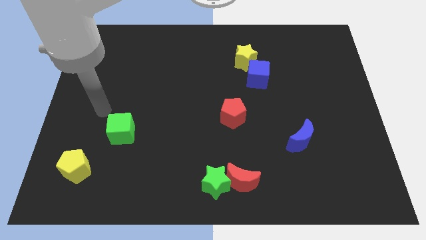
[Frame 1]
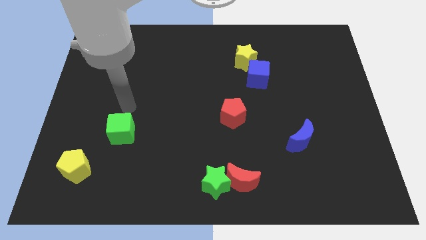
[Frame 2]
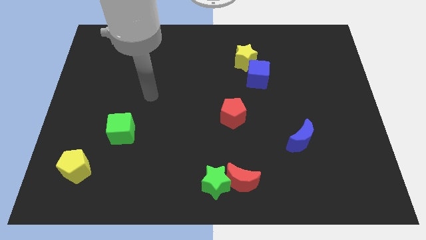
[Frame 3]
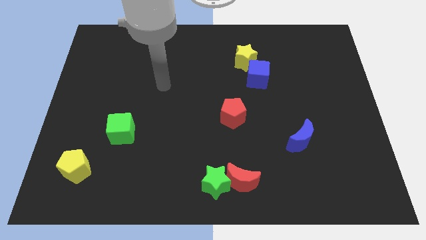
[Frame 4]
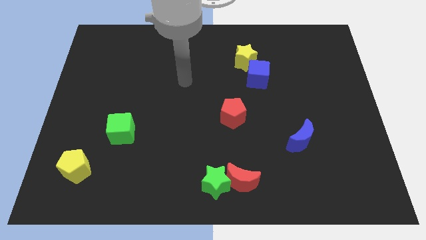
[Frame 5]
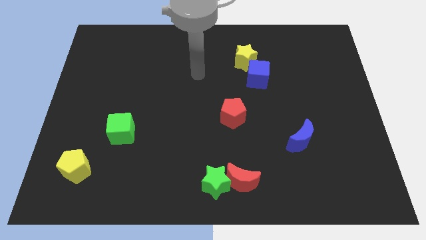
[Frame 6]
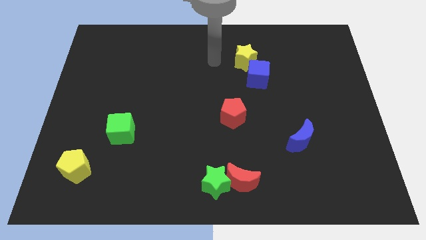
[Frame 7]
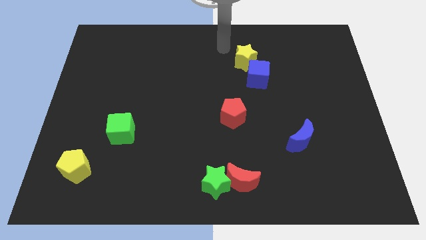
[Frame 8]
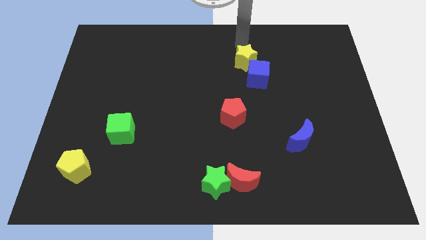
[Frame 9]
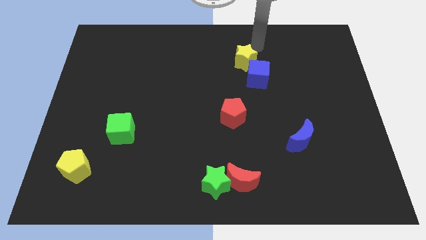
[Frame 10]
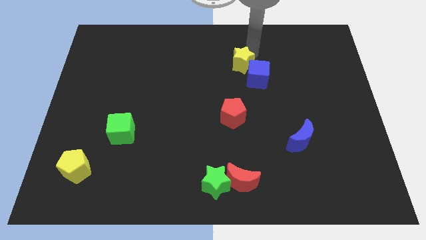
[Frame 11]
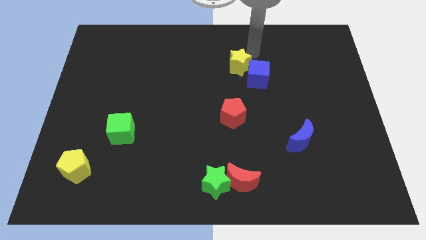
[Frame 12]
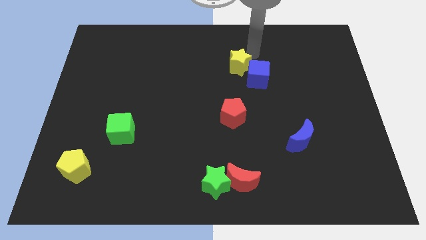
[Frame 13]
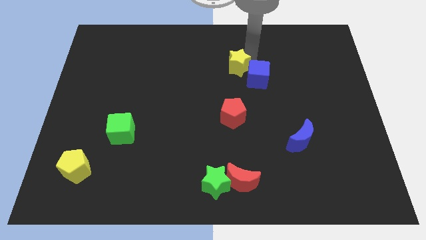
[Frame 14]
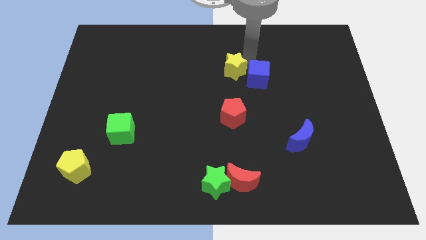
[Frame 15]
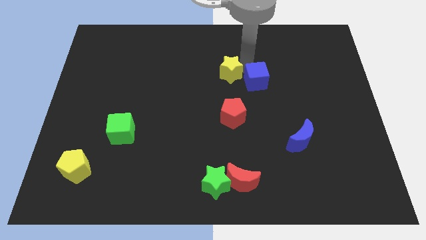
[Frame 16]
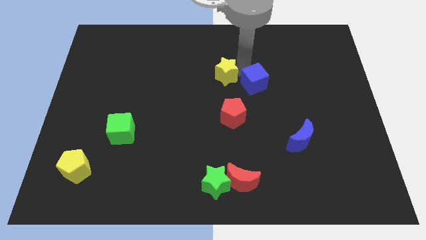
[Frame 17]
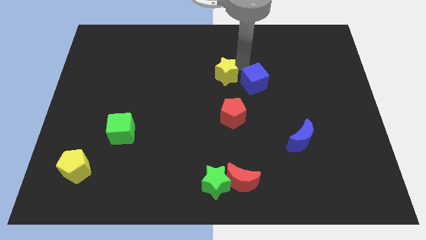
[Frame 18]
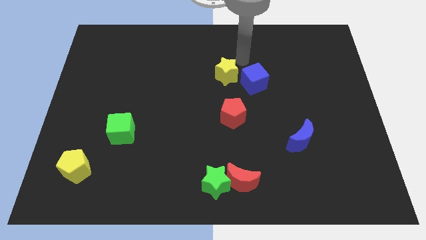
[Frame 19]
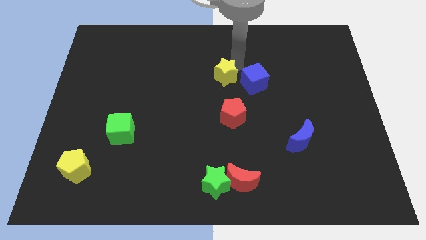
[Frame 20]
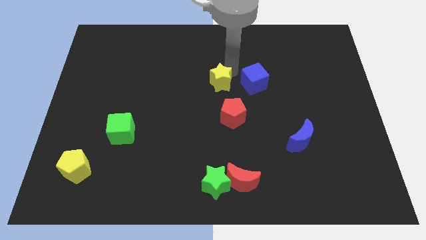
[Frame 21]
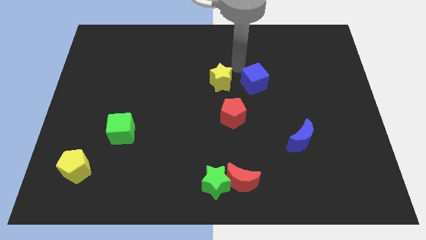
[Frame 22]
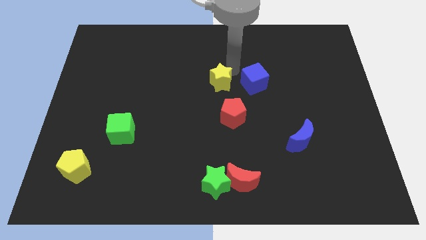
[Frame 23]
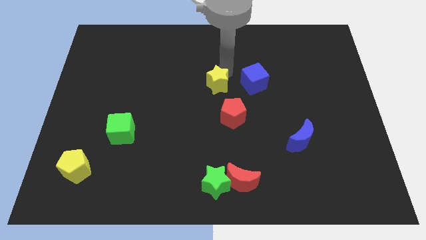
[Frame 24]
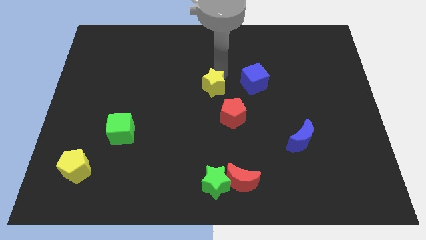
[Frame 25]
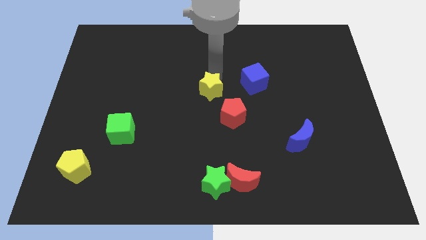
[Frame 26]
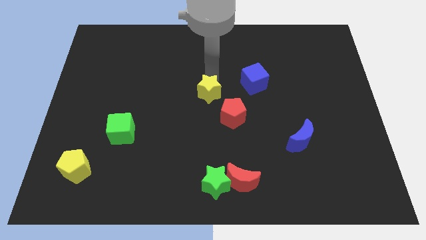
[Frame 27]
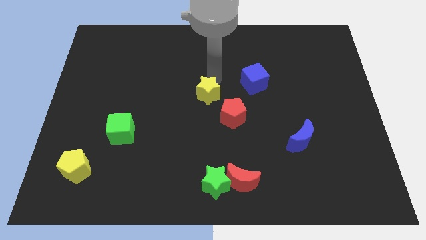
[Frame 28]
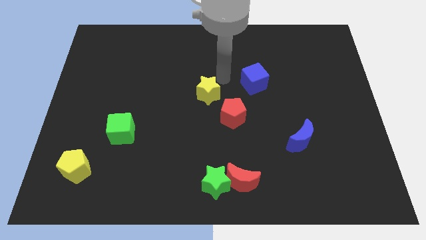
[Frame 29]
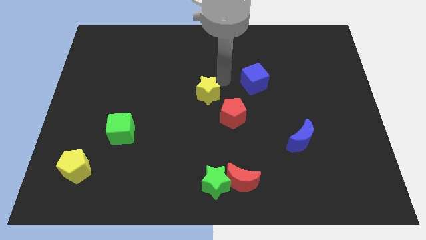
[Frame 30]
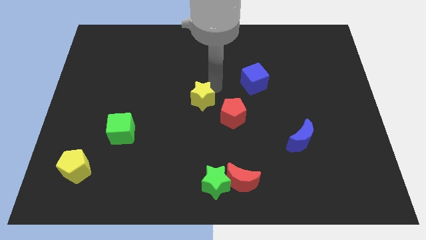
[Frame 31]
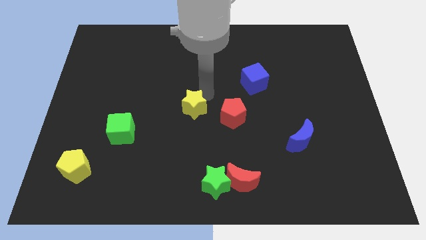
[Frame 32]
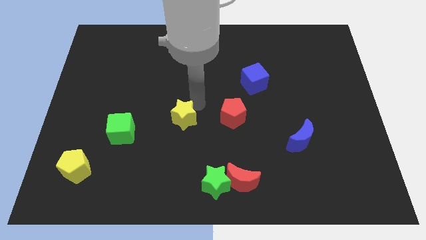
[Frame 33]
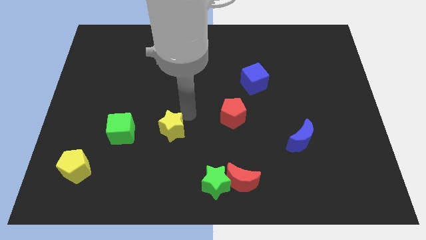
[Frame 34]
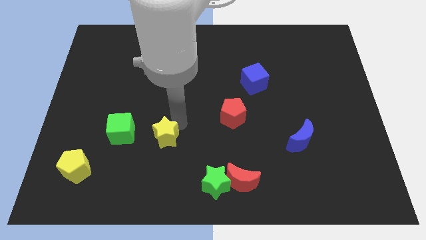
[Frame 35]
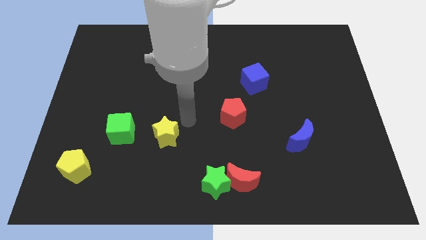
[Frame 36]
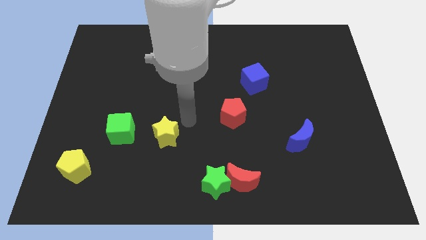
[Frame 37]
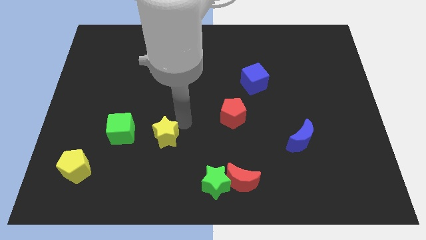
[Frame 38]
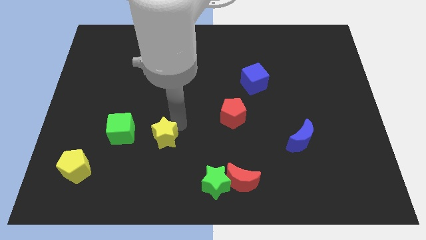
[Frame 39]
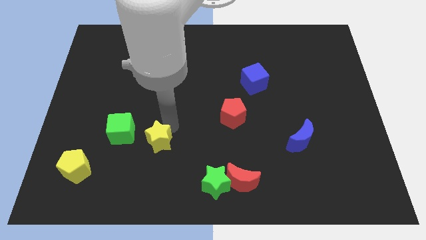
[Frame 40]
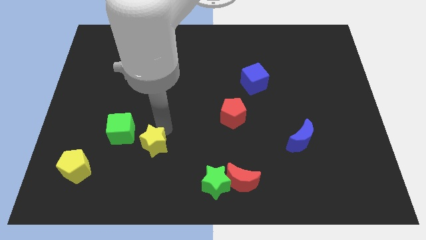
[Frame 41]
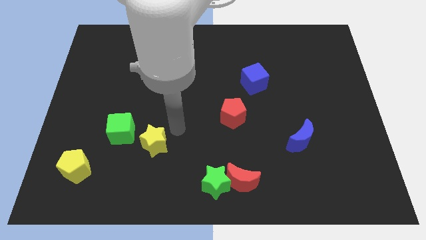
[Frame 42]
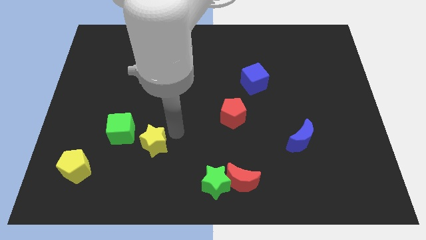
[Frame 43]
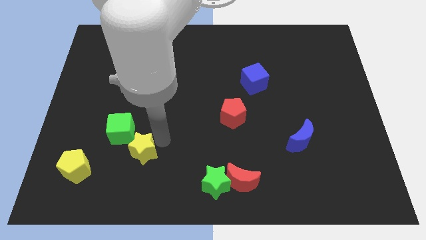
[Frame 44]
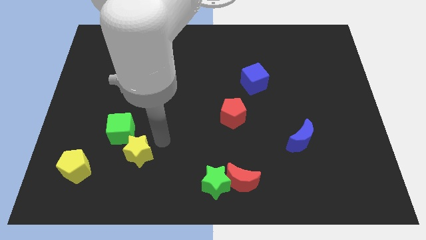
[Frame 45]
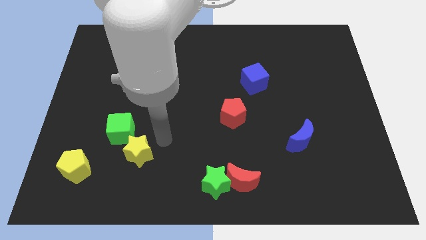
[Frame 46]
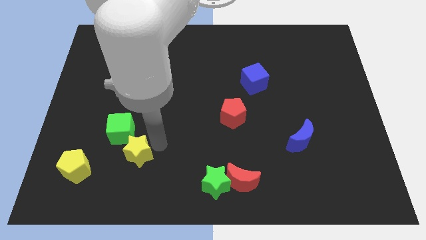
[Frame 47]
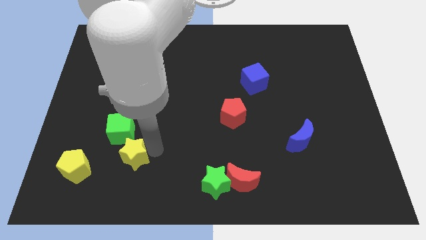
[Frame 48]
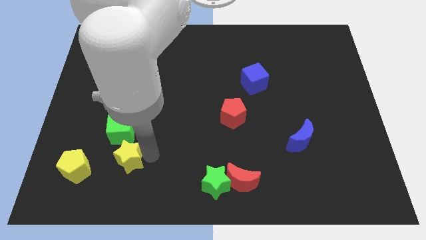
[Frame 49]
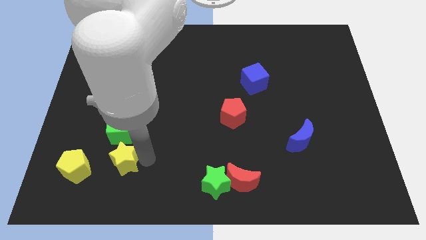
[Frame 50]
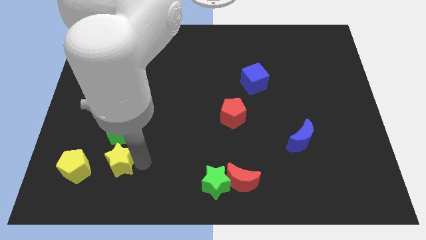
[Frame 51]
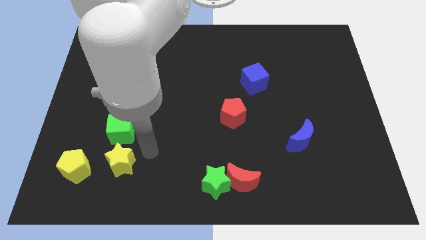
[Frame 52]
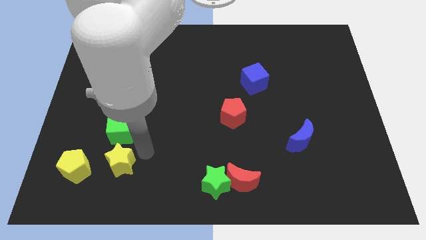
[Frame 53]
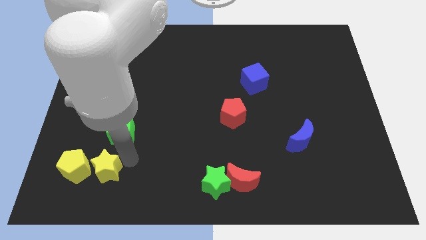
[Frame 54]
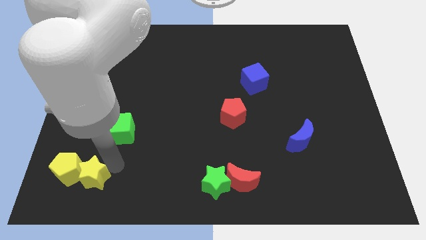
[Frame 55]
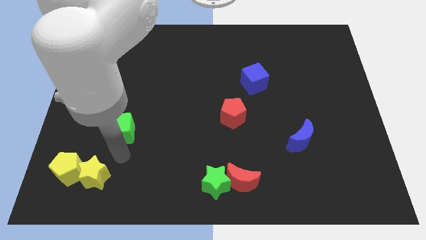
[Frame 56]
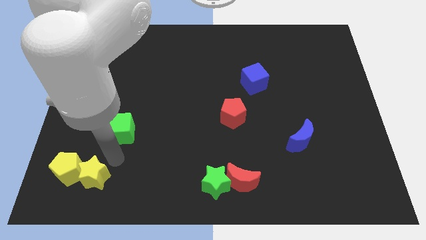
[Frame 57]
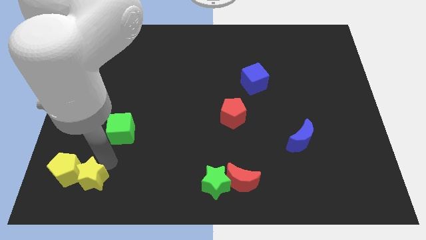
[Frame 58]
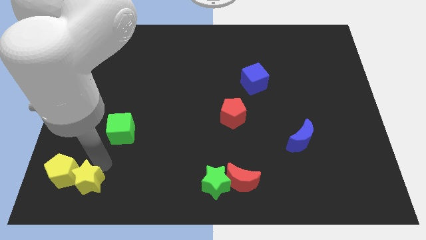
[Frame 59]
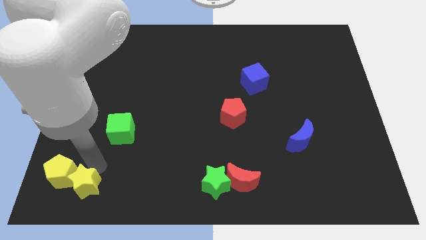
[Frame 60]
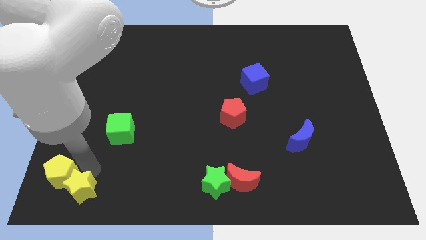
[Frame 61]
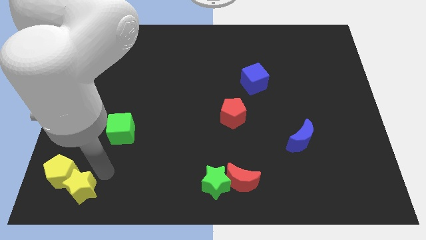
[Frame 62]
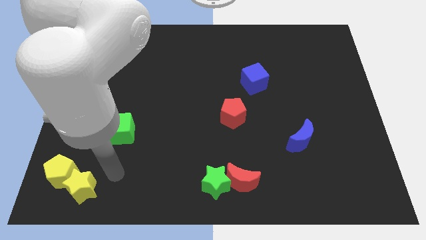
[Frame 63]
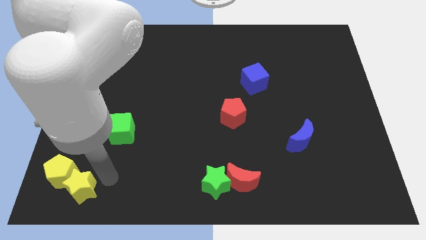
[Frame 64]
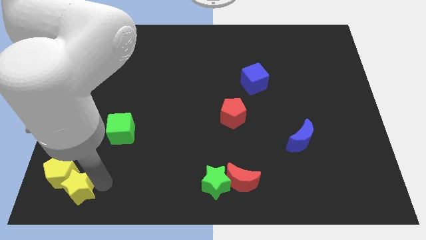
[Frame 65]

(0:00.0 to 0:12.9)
push the yellow star to the bottom left corner
